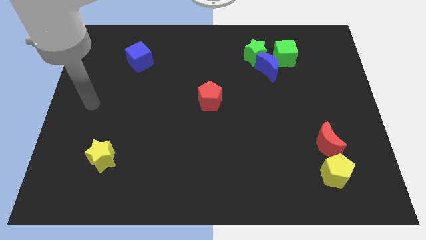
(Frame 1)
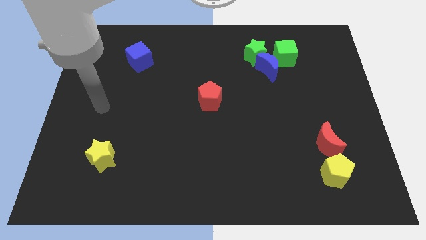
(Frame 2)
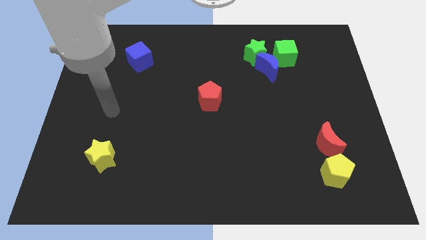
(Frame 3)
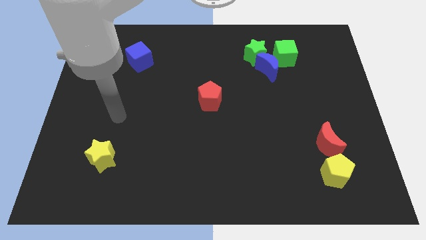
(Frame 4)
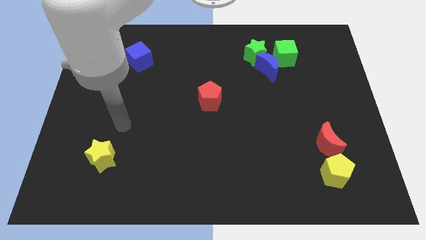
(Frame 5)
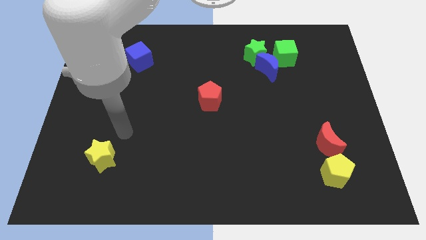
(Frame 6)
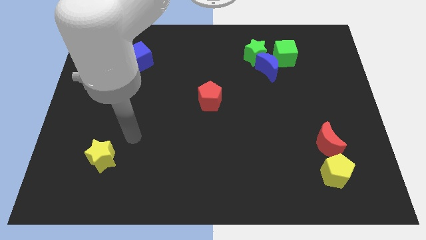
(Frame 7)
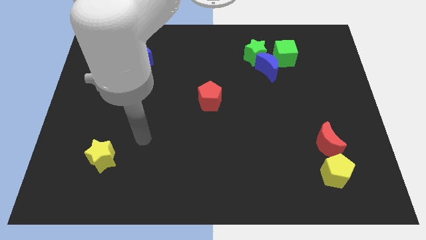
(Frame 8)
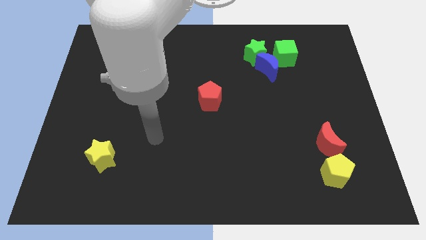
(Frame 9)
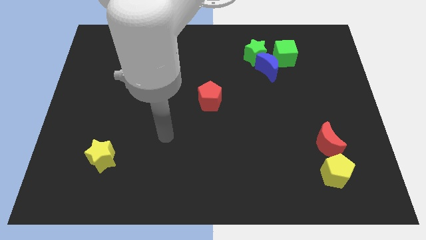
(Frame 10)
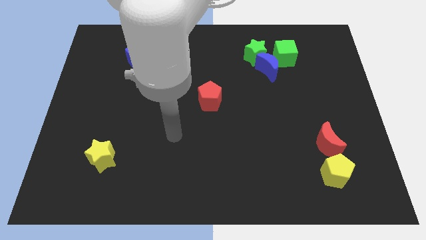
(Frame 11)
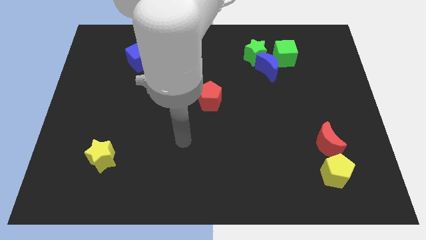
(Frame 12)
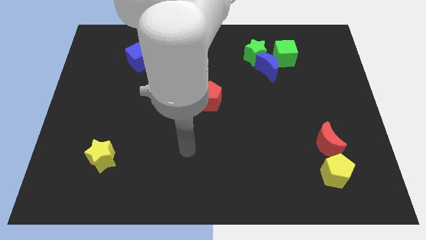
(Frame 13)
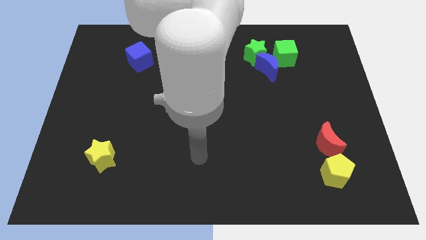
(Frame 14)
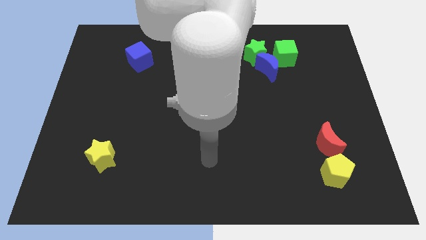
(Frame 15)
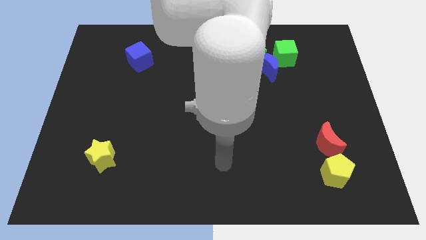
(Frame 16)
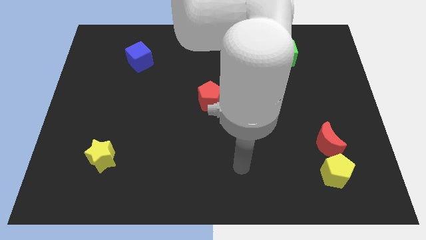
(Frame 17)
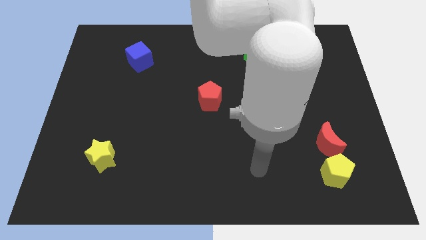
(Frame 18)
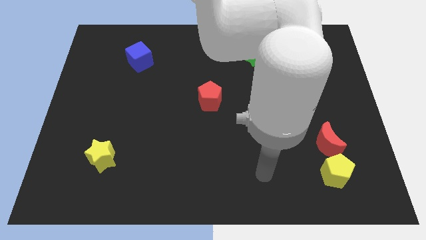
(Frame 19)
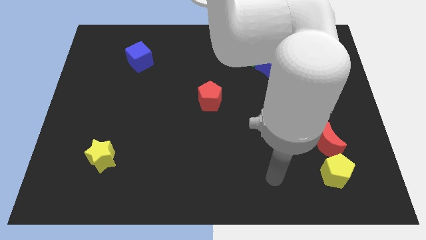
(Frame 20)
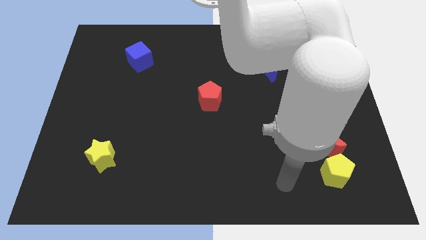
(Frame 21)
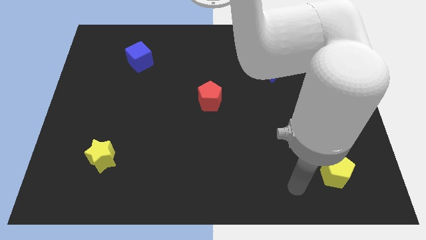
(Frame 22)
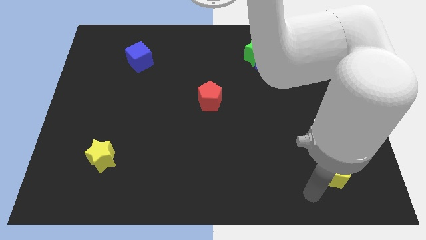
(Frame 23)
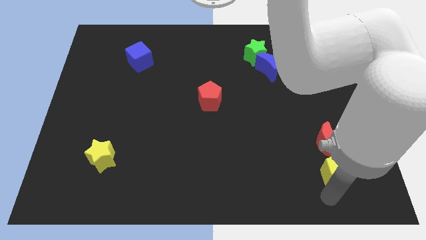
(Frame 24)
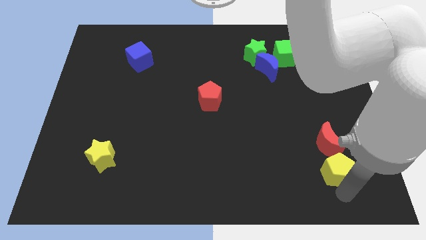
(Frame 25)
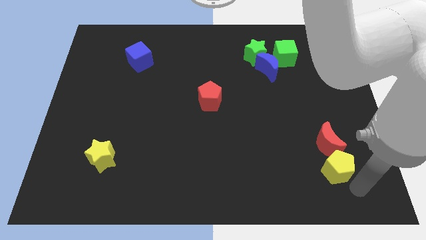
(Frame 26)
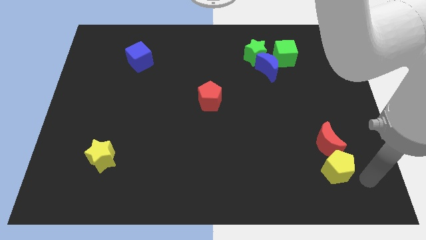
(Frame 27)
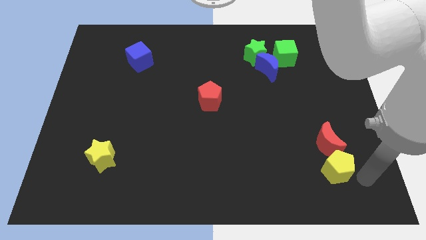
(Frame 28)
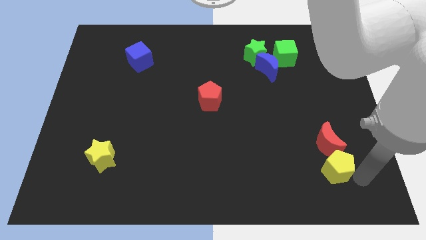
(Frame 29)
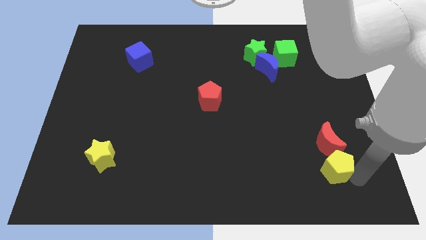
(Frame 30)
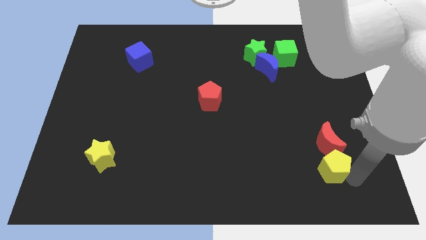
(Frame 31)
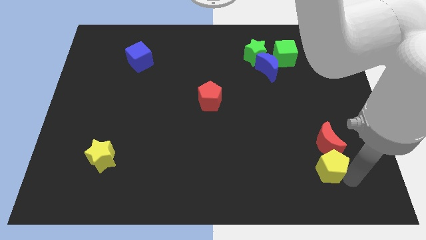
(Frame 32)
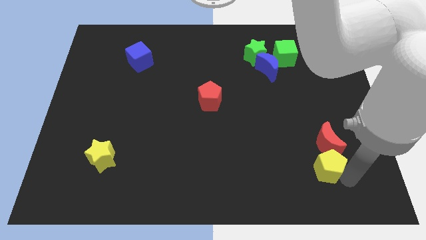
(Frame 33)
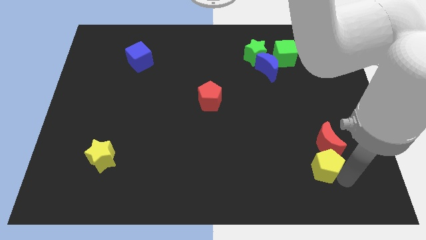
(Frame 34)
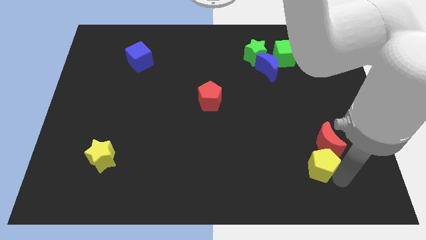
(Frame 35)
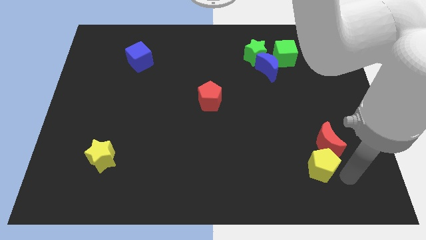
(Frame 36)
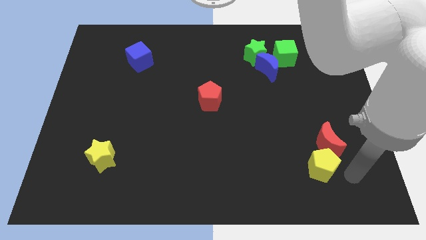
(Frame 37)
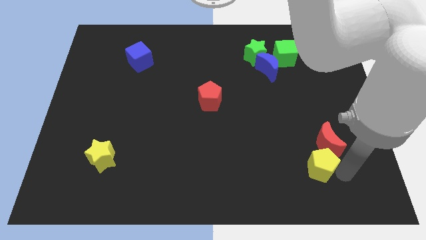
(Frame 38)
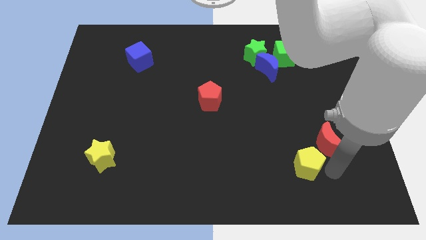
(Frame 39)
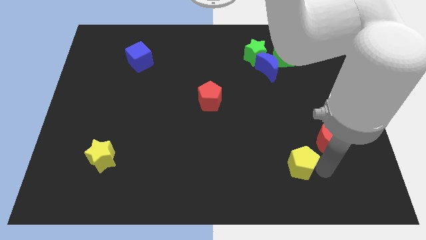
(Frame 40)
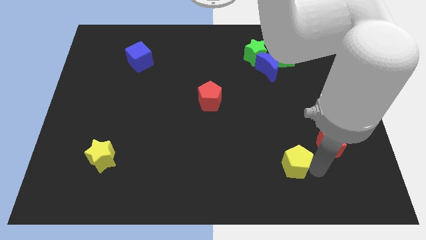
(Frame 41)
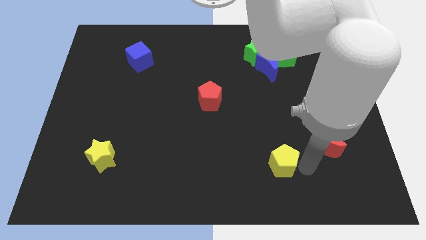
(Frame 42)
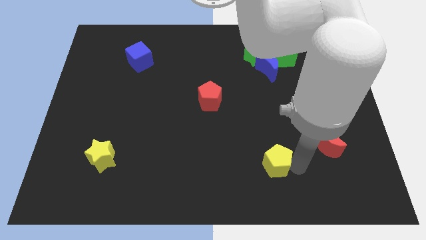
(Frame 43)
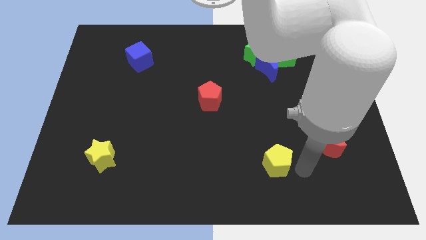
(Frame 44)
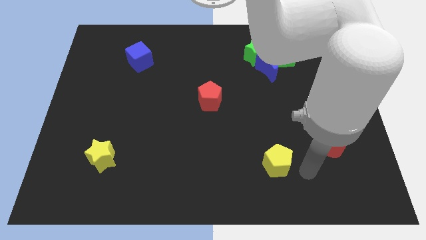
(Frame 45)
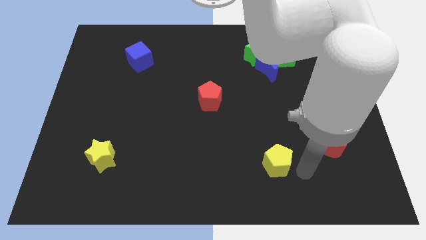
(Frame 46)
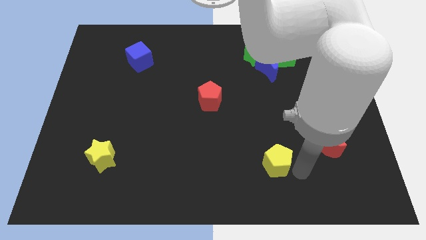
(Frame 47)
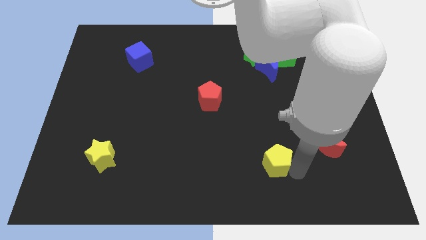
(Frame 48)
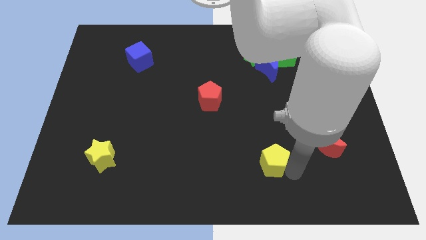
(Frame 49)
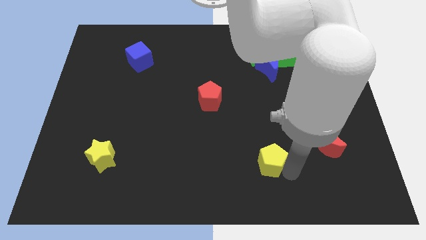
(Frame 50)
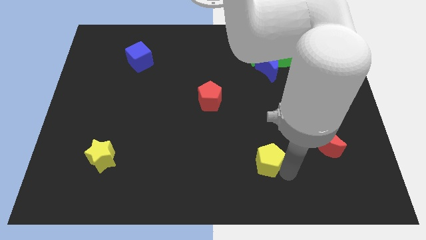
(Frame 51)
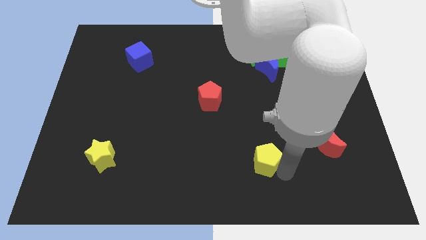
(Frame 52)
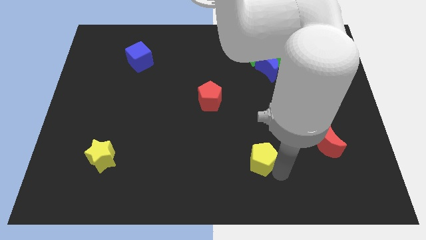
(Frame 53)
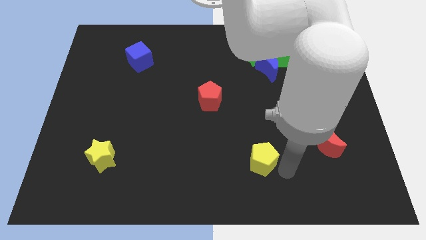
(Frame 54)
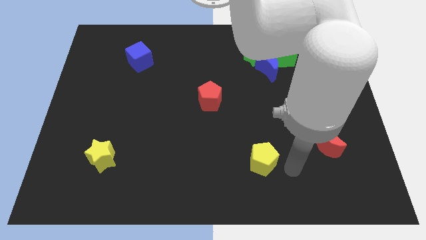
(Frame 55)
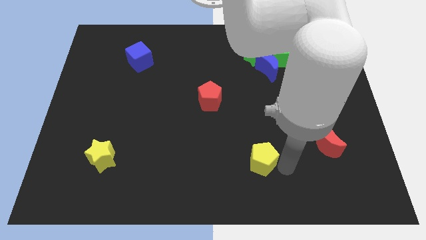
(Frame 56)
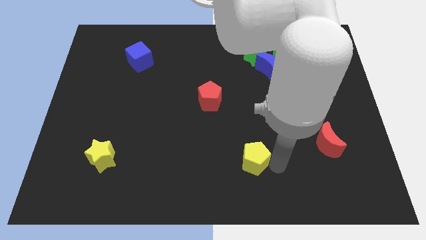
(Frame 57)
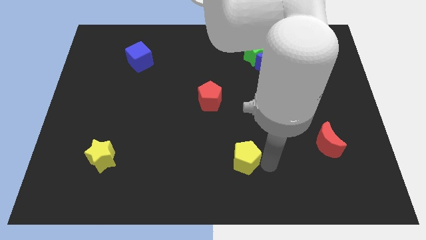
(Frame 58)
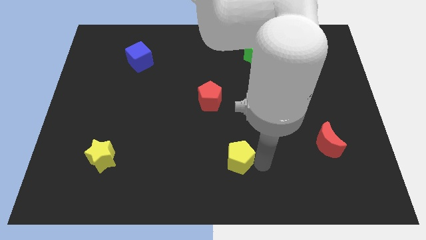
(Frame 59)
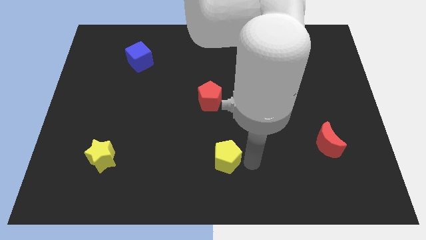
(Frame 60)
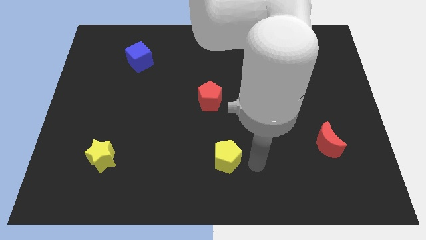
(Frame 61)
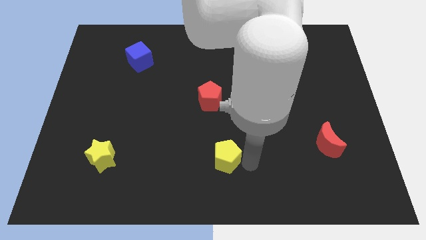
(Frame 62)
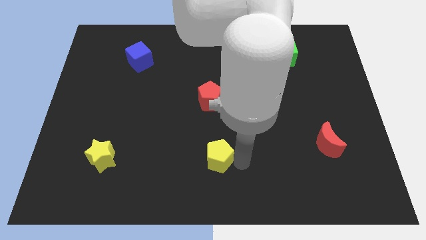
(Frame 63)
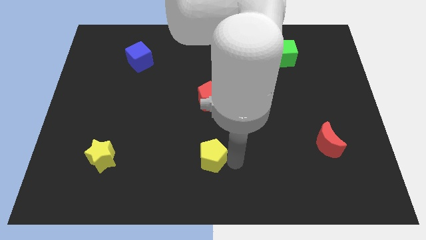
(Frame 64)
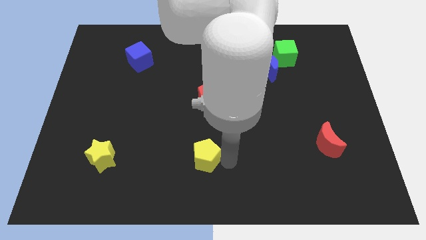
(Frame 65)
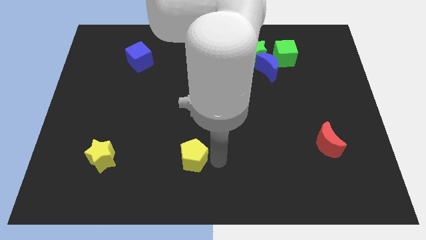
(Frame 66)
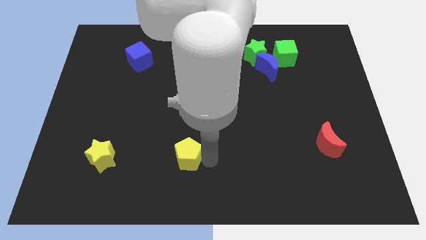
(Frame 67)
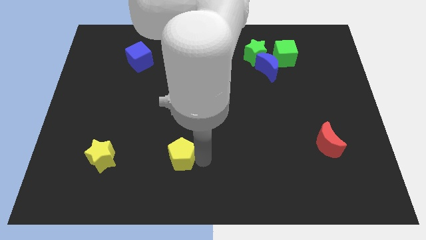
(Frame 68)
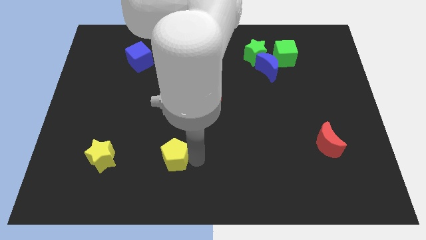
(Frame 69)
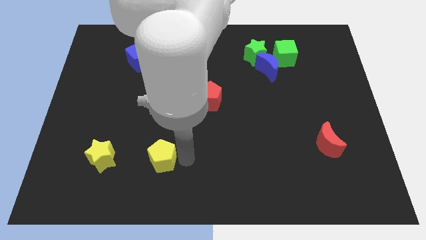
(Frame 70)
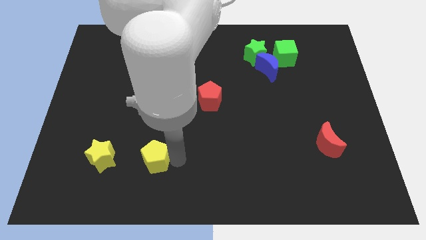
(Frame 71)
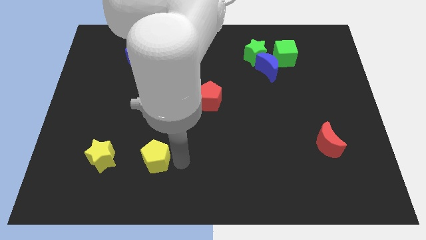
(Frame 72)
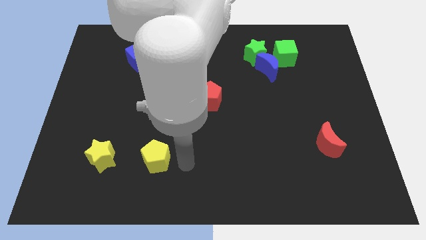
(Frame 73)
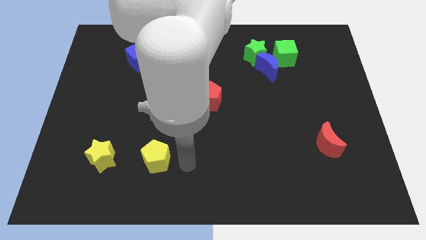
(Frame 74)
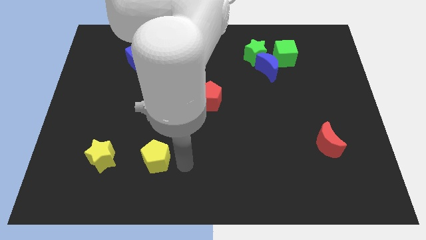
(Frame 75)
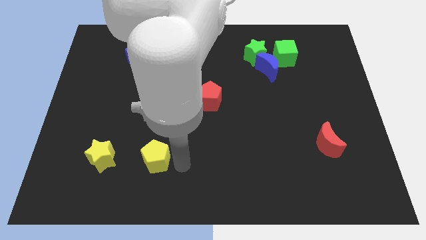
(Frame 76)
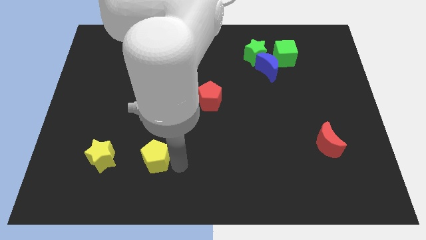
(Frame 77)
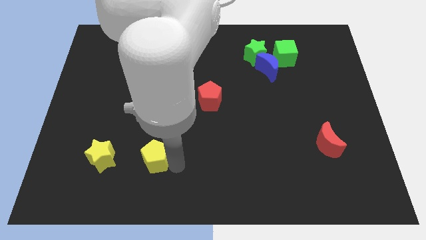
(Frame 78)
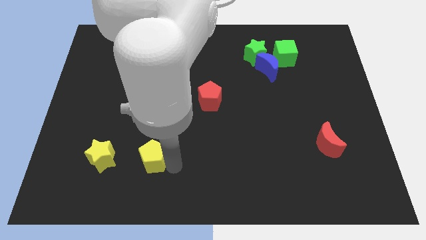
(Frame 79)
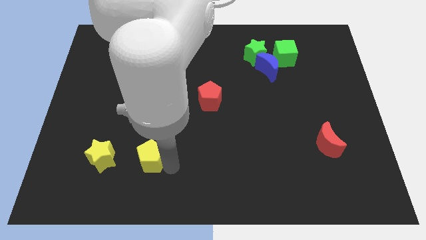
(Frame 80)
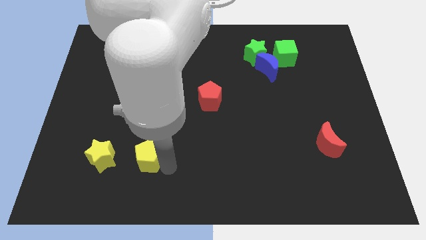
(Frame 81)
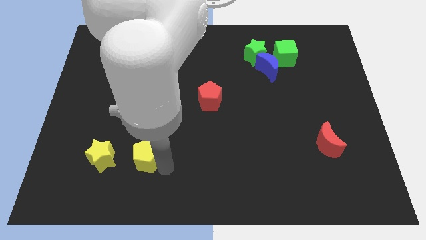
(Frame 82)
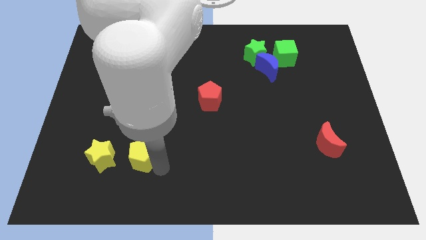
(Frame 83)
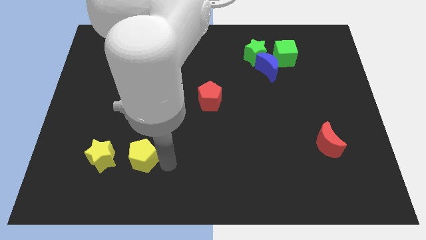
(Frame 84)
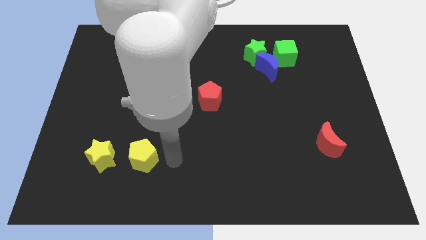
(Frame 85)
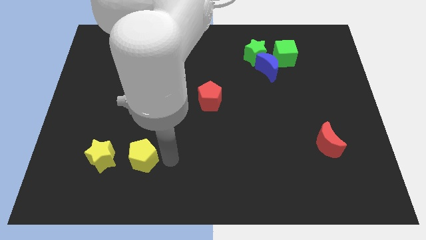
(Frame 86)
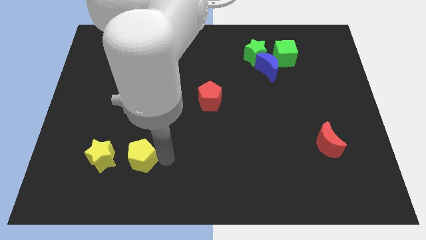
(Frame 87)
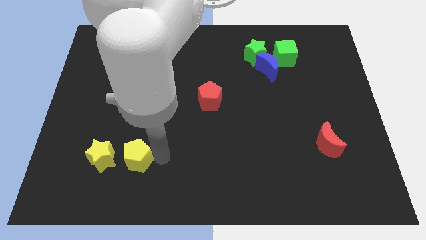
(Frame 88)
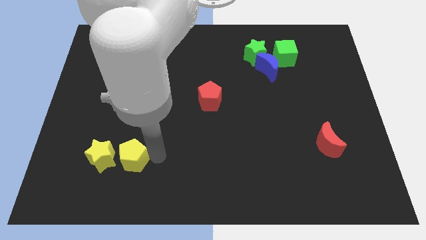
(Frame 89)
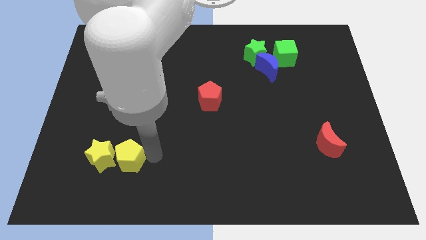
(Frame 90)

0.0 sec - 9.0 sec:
push the yellow pentagon towards the yellow star
